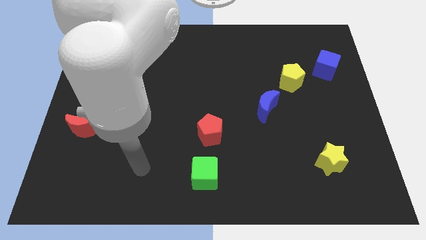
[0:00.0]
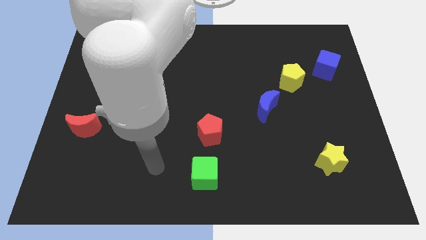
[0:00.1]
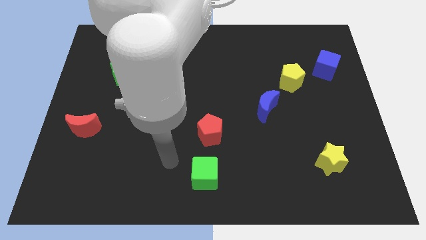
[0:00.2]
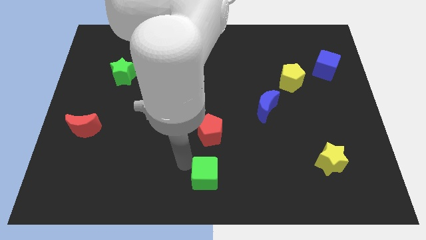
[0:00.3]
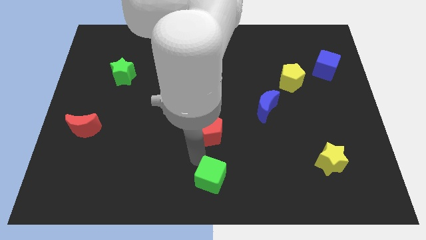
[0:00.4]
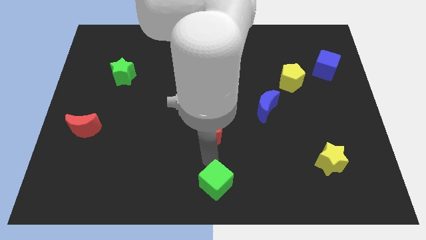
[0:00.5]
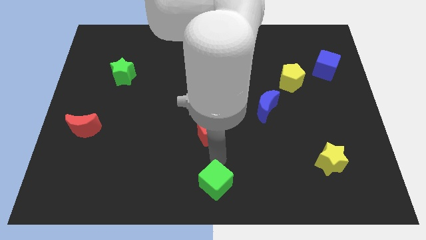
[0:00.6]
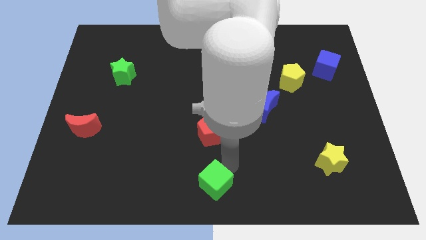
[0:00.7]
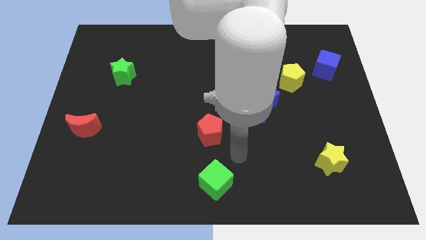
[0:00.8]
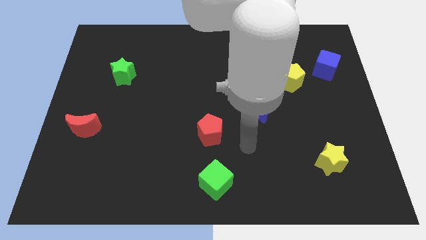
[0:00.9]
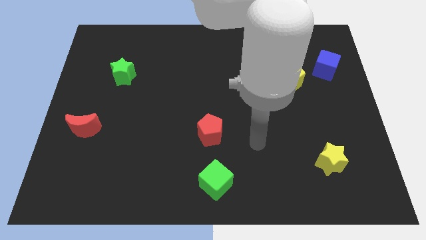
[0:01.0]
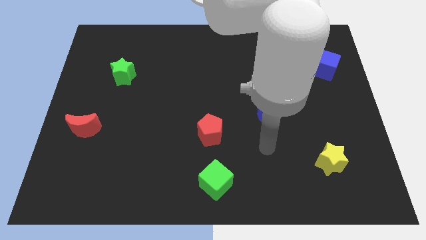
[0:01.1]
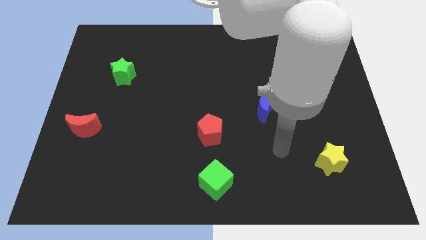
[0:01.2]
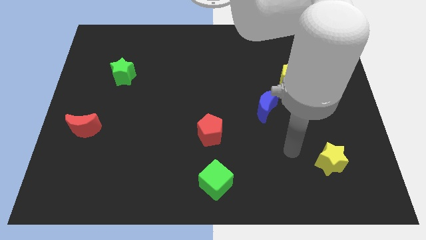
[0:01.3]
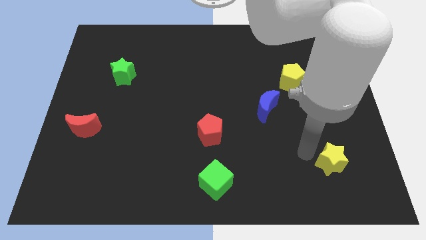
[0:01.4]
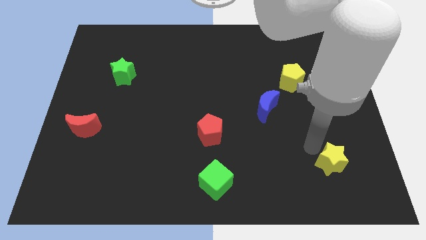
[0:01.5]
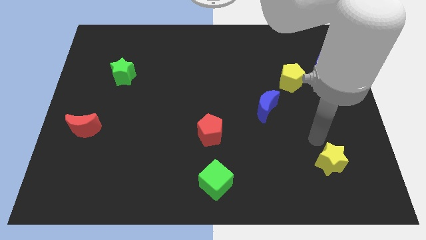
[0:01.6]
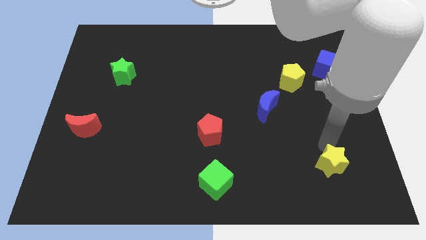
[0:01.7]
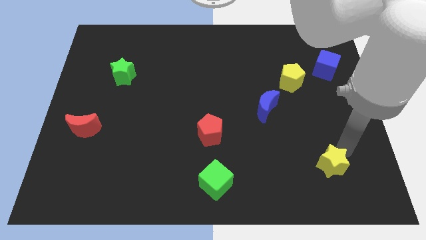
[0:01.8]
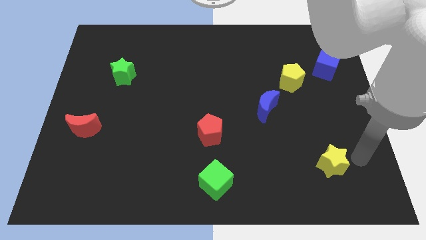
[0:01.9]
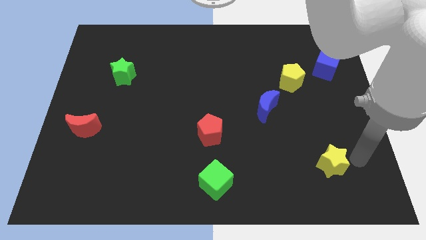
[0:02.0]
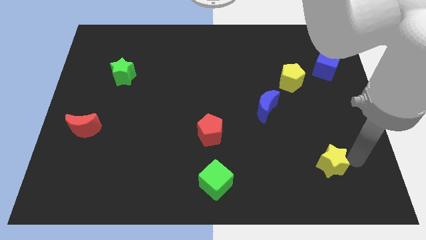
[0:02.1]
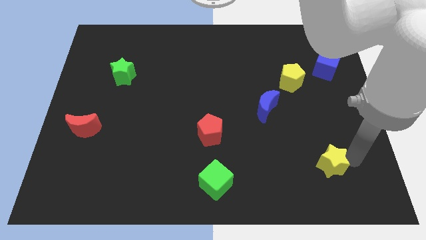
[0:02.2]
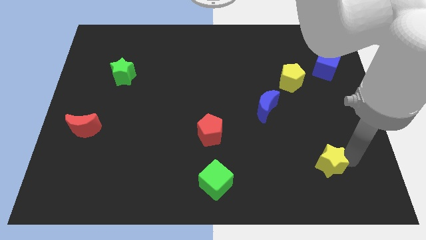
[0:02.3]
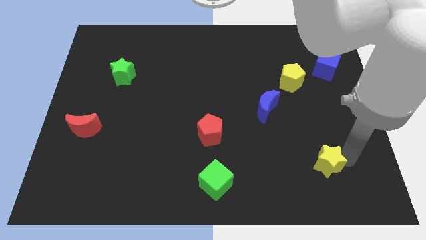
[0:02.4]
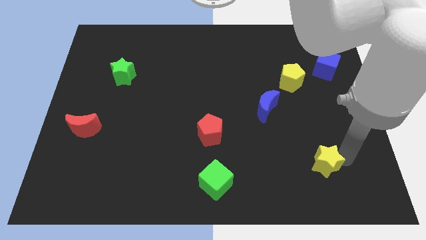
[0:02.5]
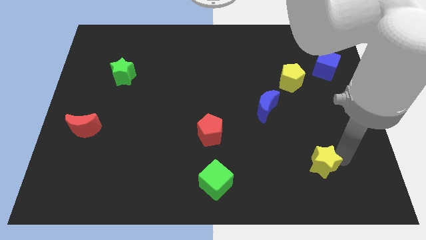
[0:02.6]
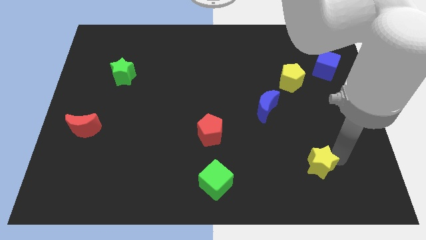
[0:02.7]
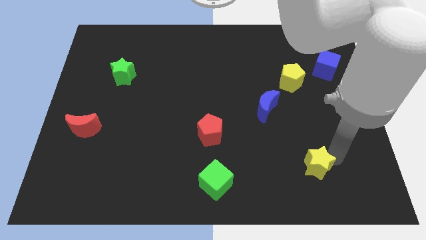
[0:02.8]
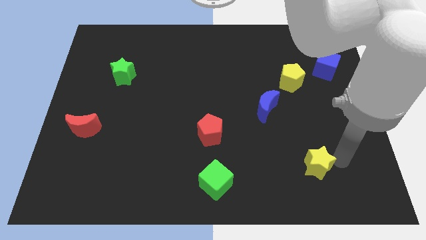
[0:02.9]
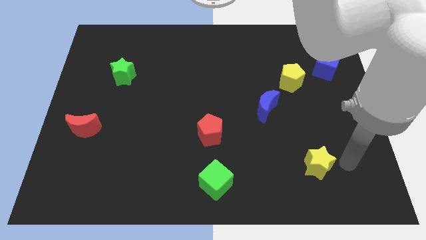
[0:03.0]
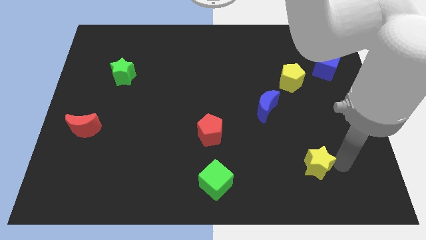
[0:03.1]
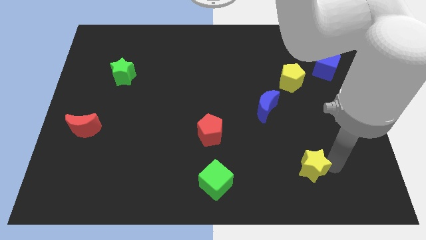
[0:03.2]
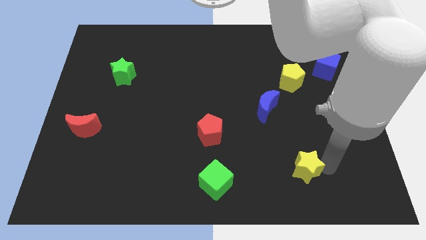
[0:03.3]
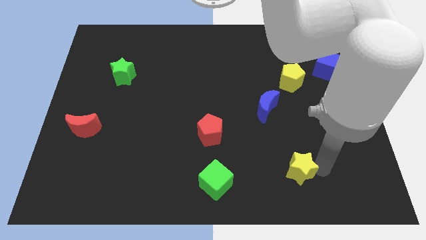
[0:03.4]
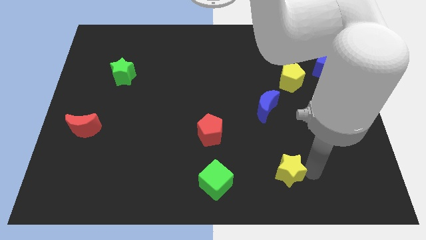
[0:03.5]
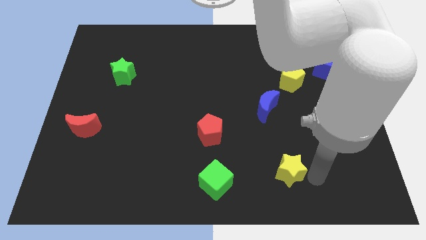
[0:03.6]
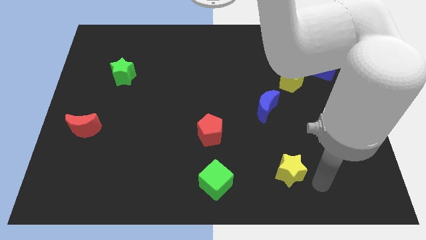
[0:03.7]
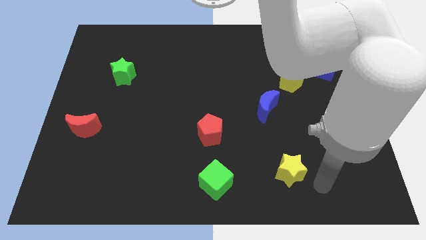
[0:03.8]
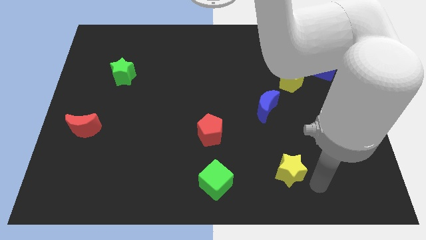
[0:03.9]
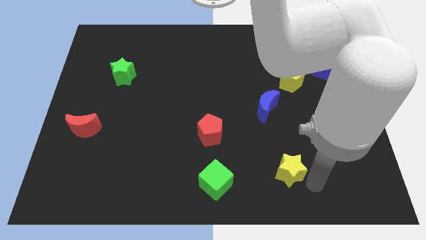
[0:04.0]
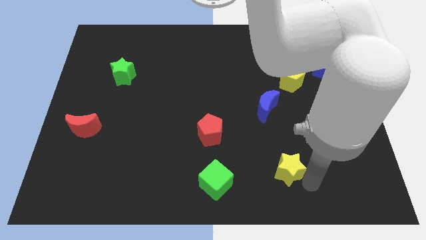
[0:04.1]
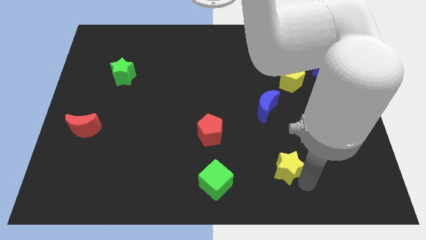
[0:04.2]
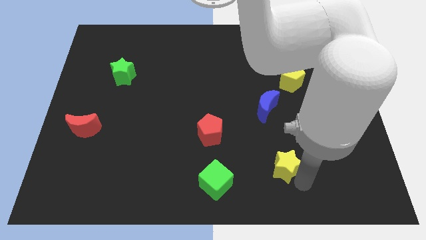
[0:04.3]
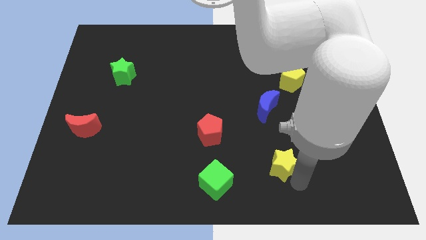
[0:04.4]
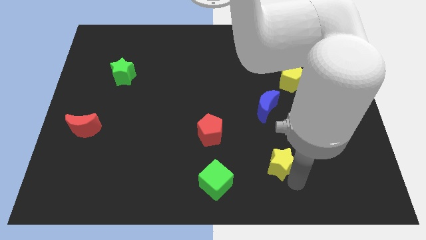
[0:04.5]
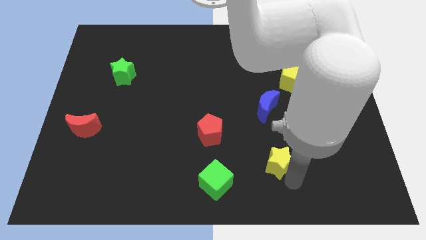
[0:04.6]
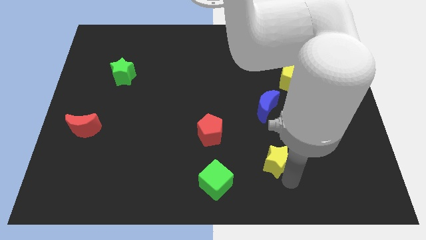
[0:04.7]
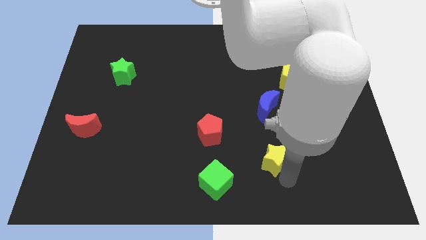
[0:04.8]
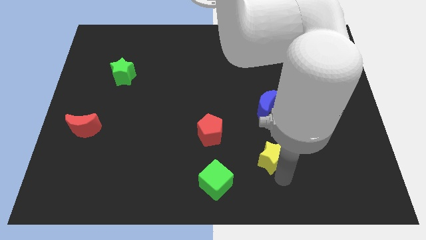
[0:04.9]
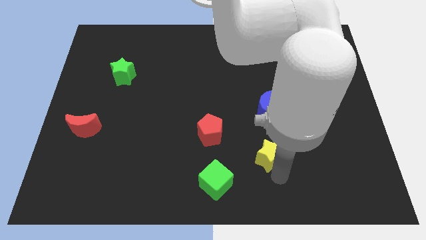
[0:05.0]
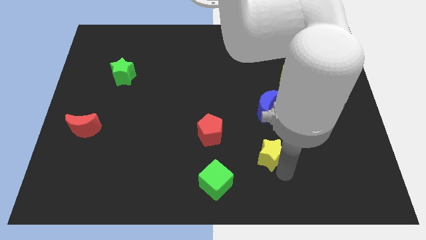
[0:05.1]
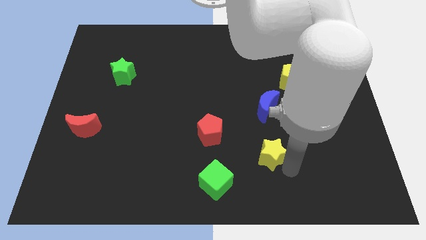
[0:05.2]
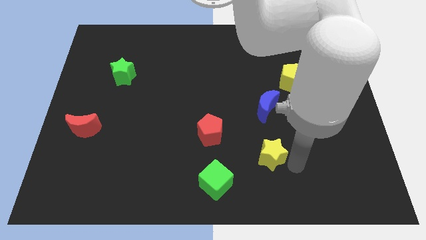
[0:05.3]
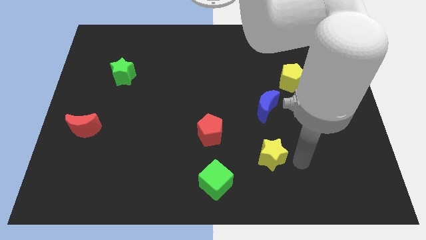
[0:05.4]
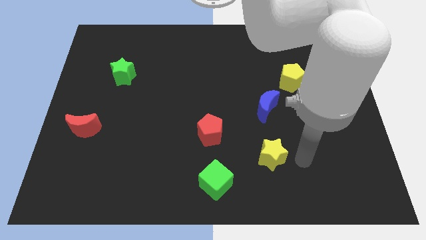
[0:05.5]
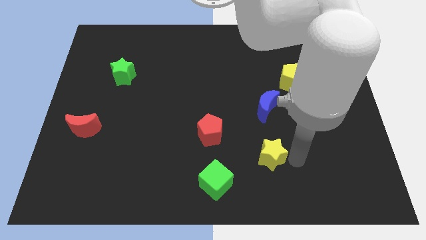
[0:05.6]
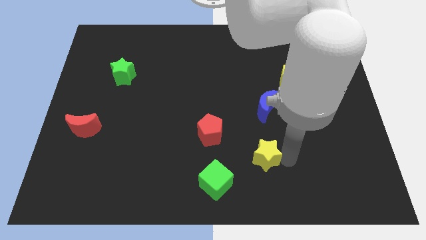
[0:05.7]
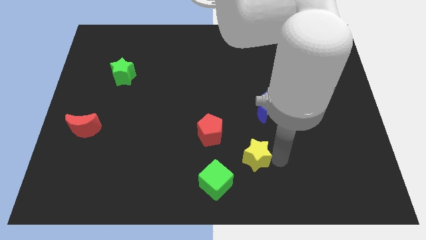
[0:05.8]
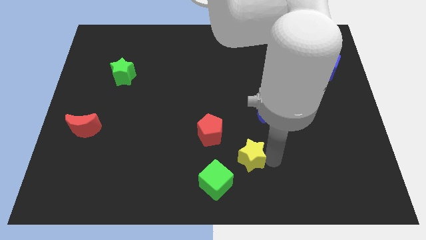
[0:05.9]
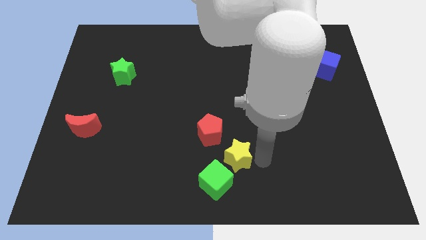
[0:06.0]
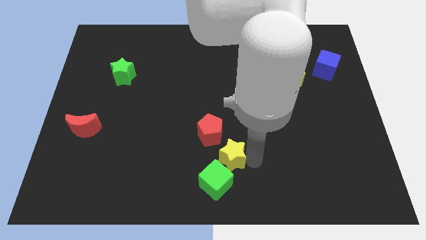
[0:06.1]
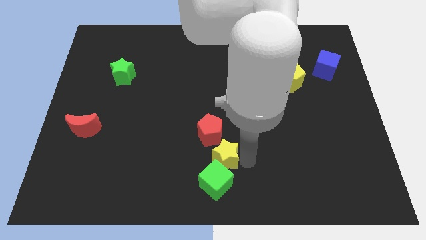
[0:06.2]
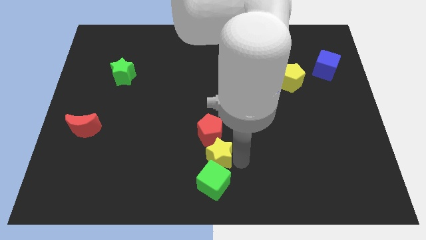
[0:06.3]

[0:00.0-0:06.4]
slide the yellow star to the top left side of the green cube
